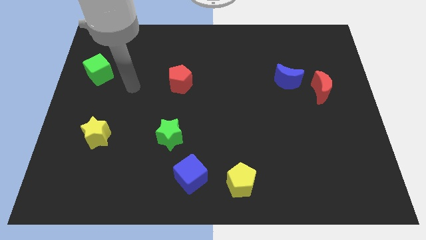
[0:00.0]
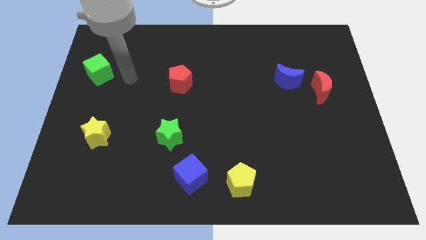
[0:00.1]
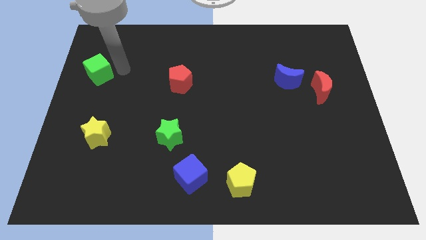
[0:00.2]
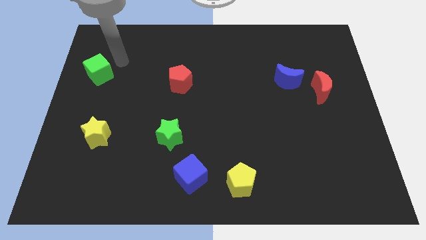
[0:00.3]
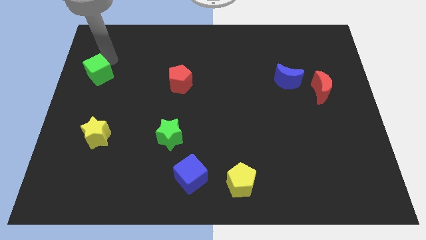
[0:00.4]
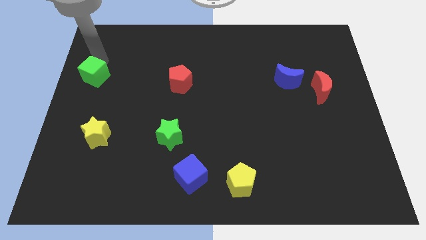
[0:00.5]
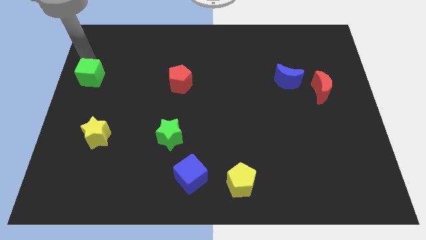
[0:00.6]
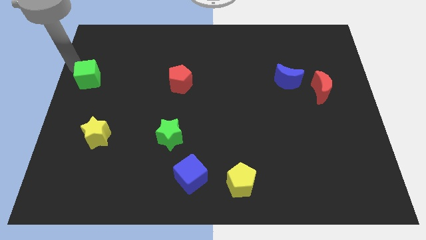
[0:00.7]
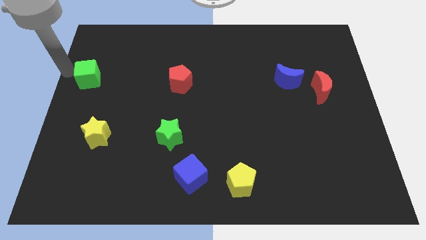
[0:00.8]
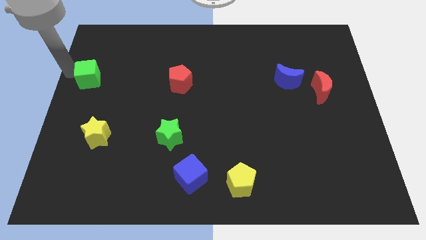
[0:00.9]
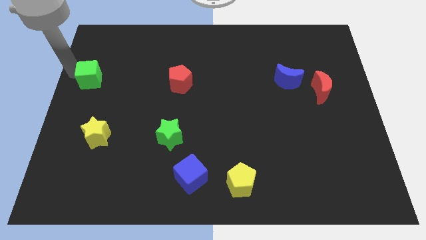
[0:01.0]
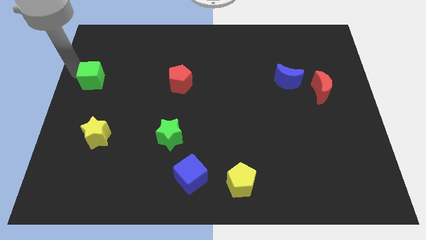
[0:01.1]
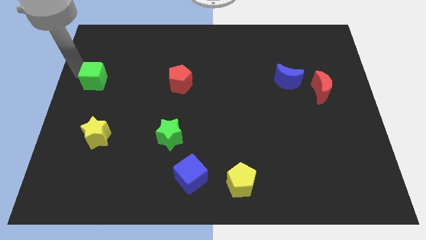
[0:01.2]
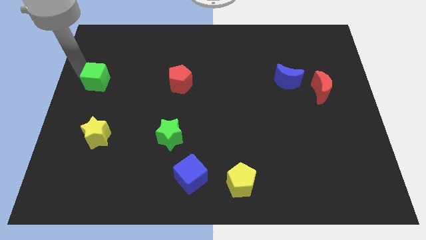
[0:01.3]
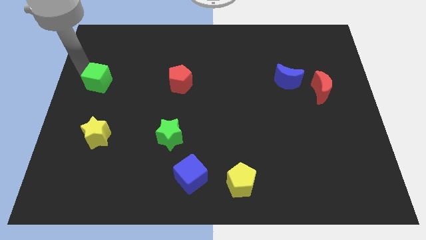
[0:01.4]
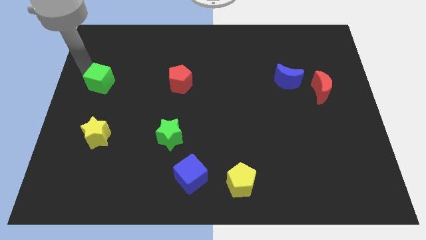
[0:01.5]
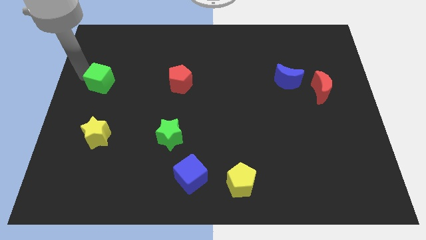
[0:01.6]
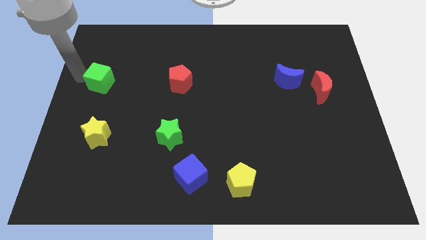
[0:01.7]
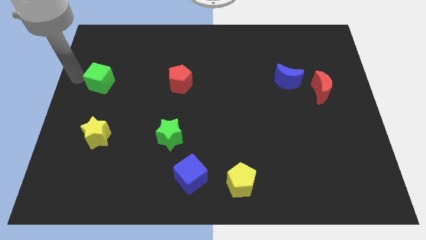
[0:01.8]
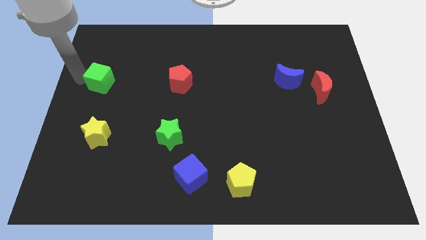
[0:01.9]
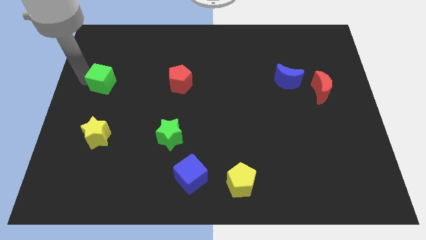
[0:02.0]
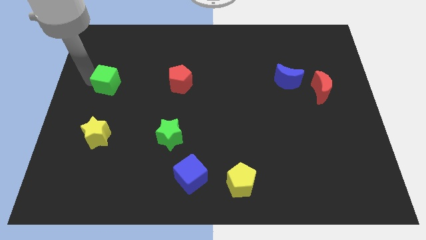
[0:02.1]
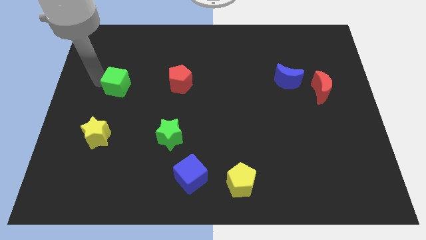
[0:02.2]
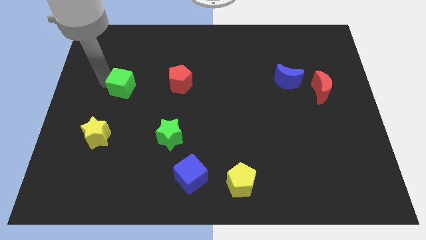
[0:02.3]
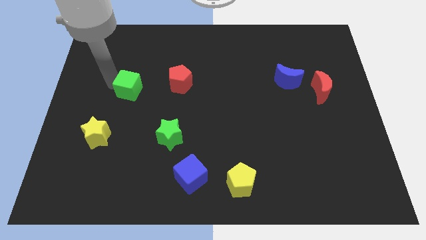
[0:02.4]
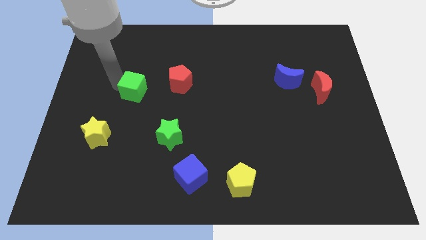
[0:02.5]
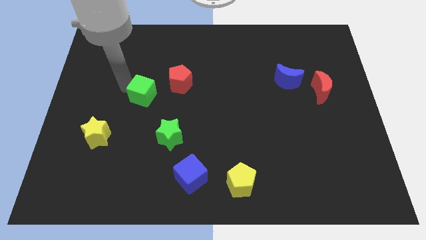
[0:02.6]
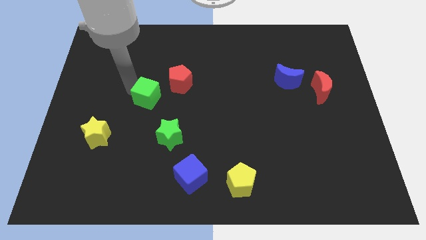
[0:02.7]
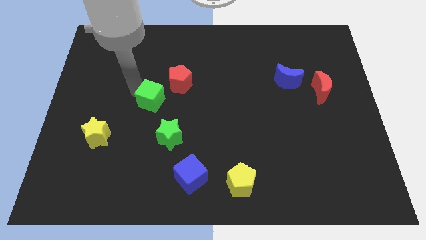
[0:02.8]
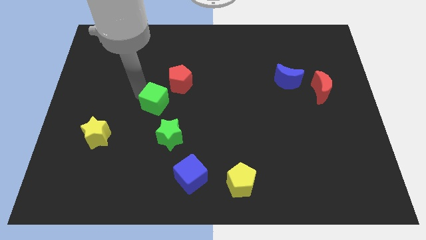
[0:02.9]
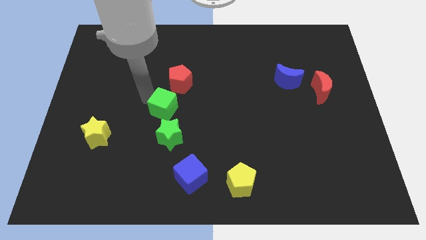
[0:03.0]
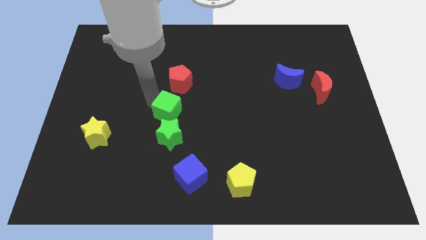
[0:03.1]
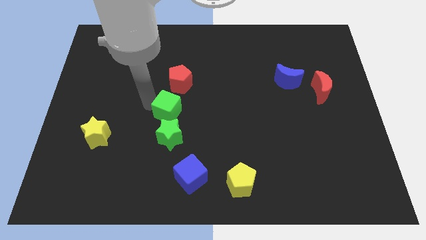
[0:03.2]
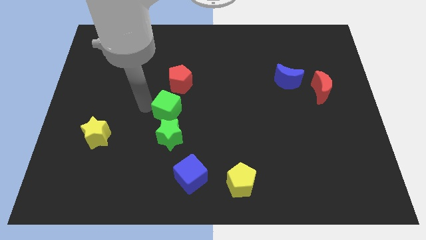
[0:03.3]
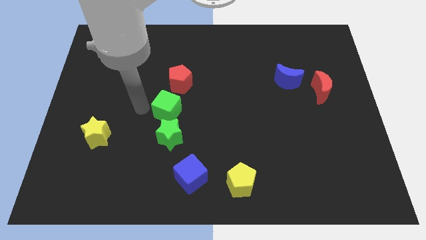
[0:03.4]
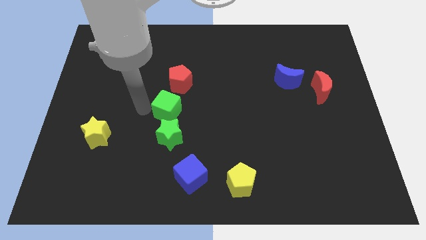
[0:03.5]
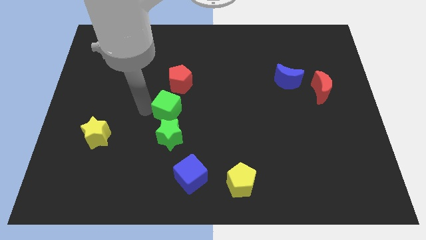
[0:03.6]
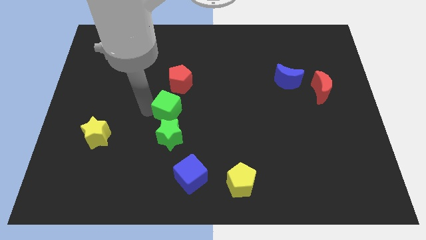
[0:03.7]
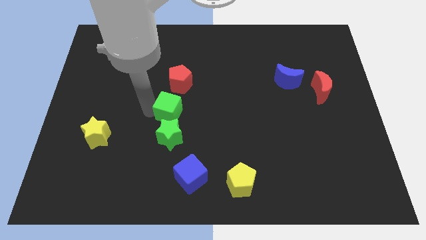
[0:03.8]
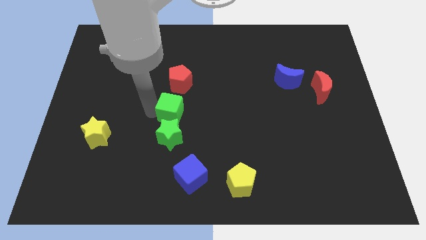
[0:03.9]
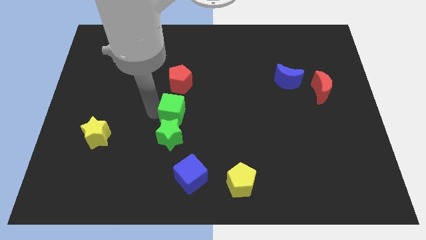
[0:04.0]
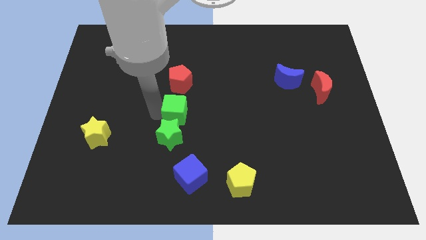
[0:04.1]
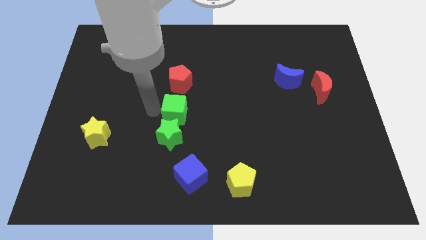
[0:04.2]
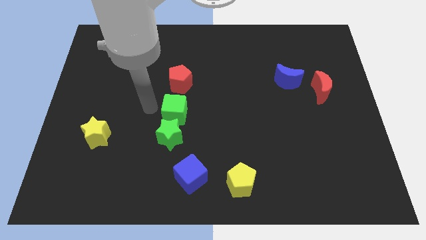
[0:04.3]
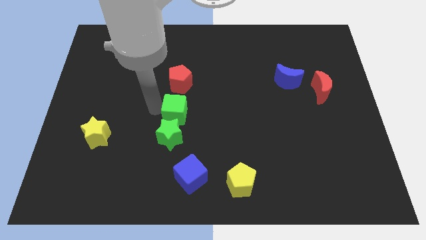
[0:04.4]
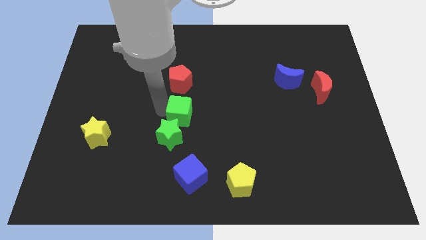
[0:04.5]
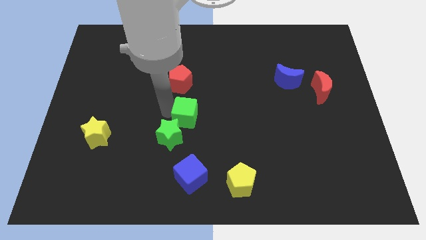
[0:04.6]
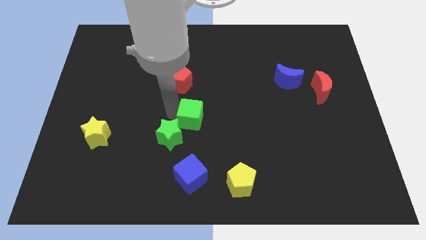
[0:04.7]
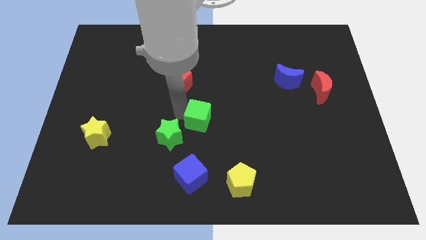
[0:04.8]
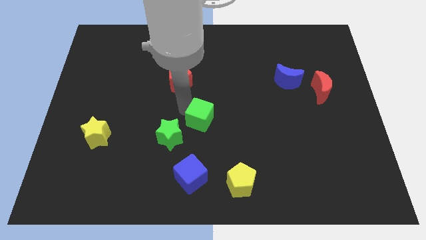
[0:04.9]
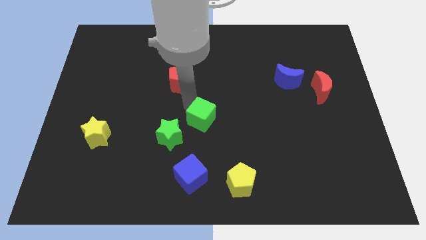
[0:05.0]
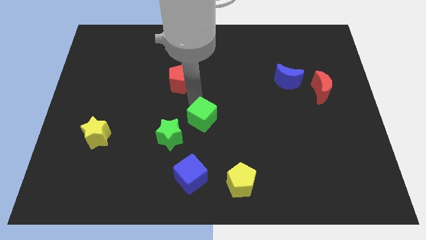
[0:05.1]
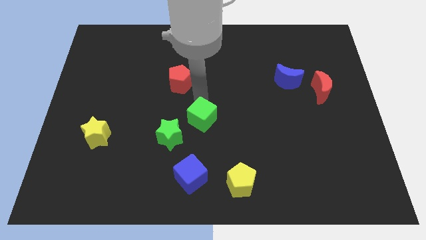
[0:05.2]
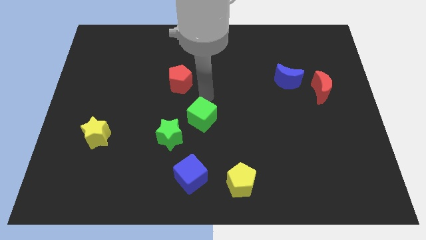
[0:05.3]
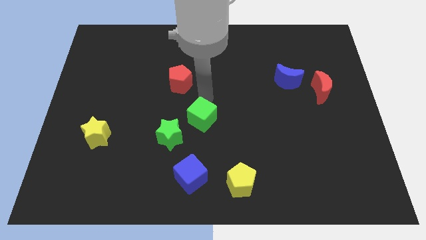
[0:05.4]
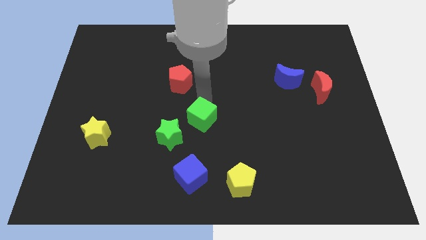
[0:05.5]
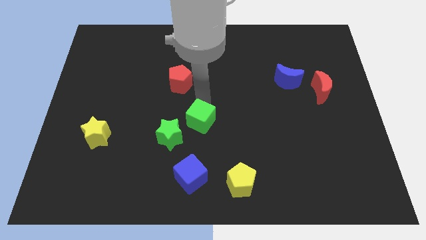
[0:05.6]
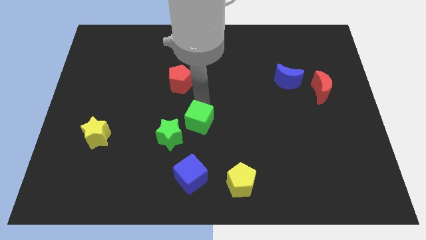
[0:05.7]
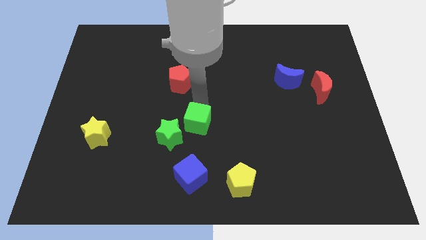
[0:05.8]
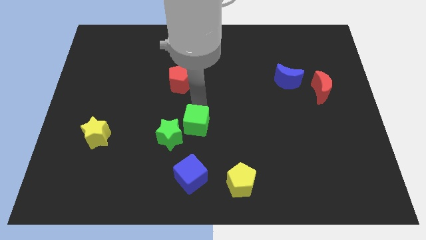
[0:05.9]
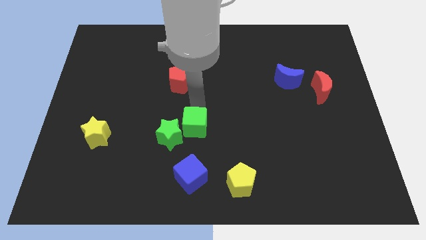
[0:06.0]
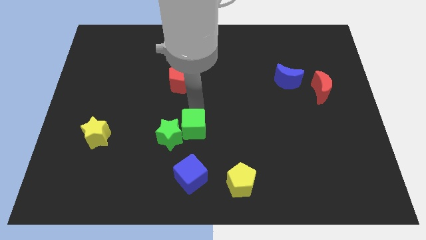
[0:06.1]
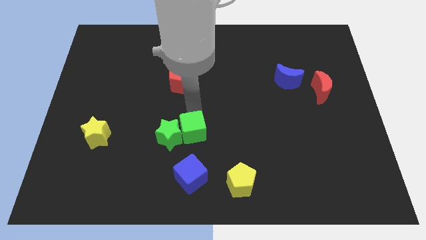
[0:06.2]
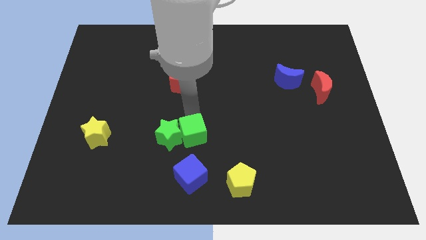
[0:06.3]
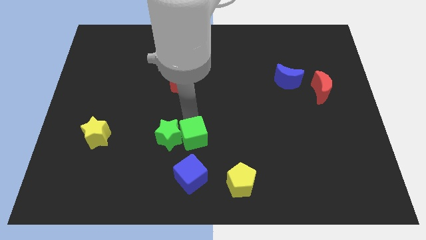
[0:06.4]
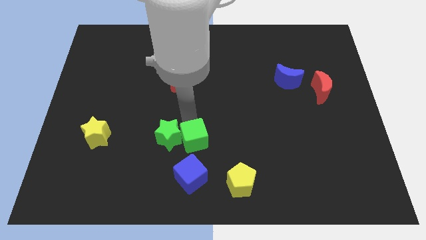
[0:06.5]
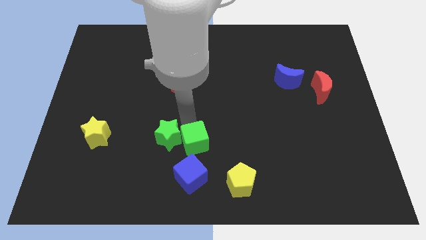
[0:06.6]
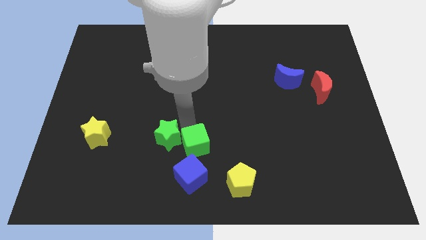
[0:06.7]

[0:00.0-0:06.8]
push the green cube to the top left of the yellow pentagon

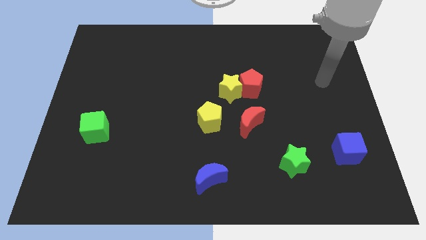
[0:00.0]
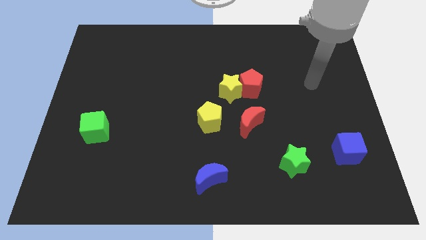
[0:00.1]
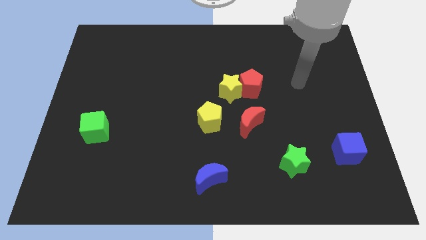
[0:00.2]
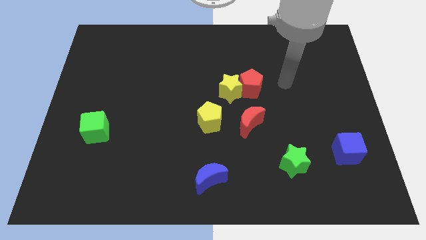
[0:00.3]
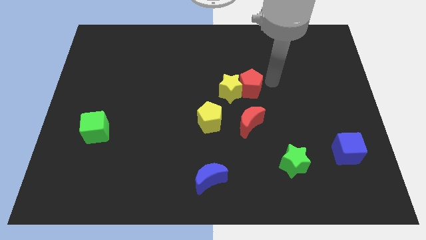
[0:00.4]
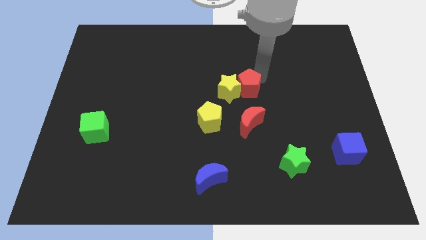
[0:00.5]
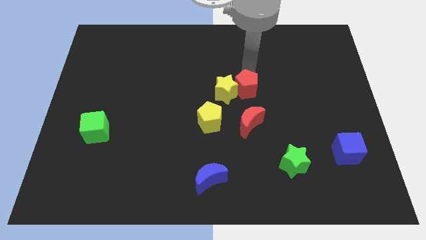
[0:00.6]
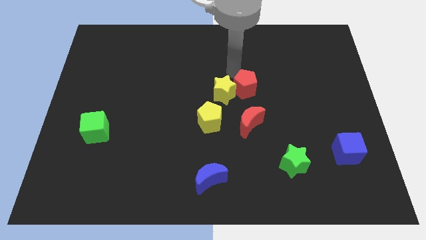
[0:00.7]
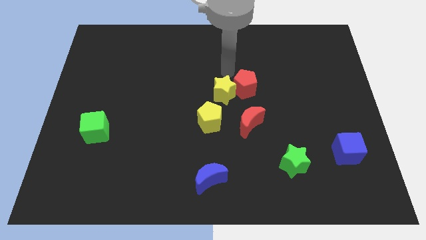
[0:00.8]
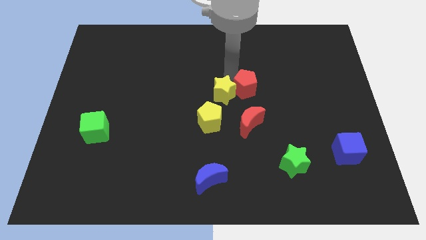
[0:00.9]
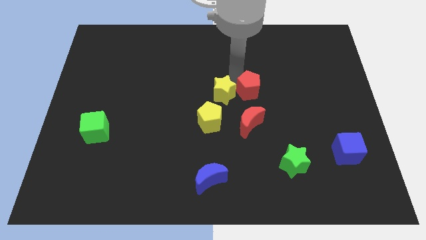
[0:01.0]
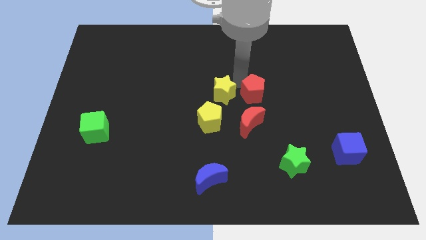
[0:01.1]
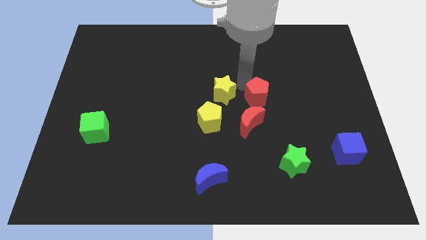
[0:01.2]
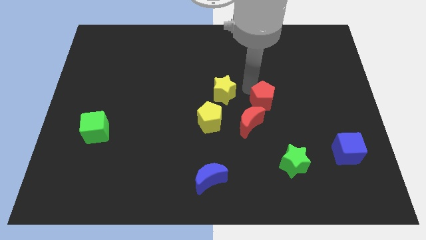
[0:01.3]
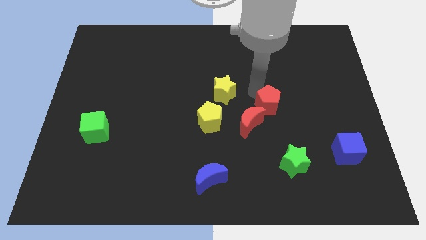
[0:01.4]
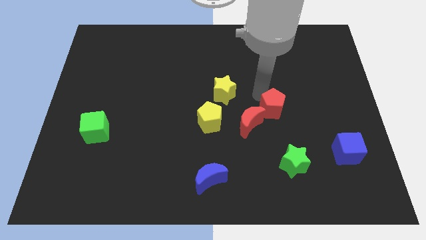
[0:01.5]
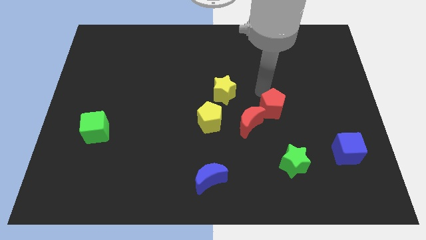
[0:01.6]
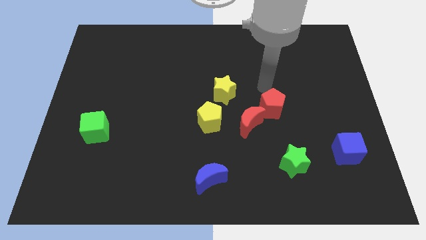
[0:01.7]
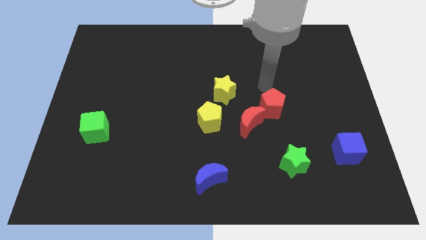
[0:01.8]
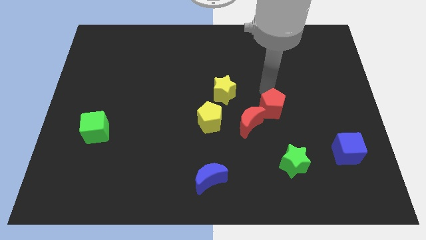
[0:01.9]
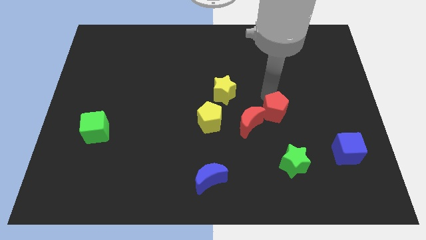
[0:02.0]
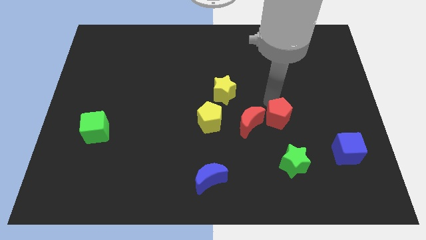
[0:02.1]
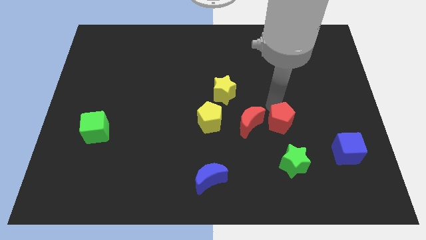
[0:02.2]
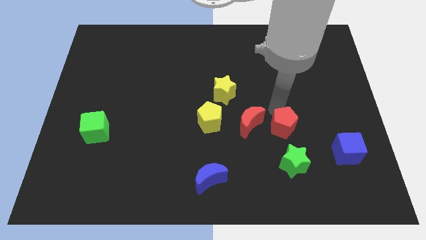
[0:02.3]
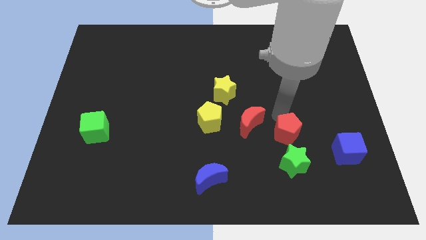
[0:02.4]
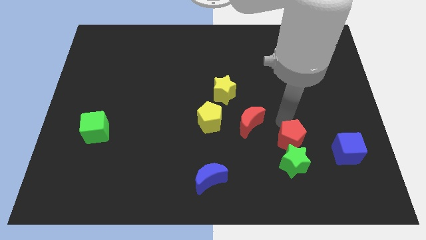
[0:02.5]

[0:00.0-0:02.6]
push the red pentagon to the left of the blue cube
